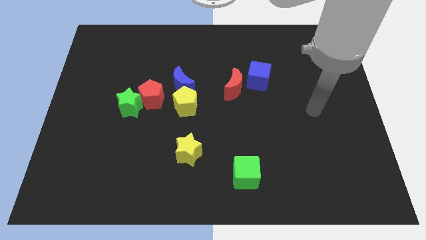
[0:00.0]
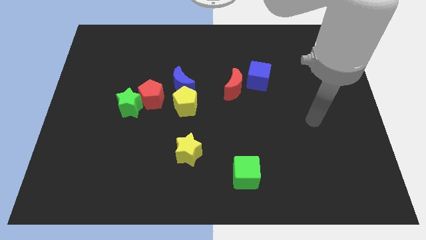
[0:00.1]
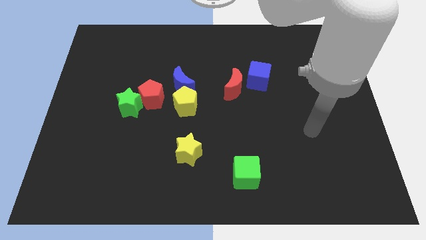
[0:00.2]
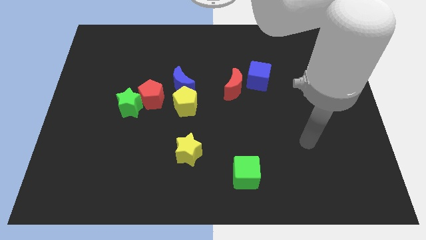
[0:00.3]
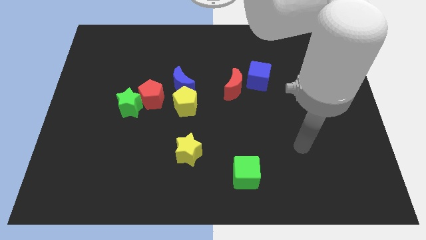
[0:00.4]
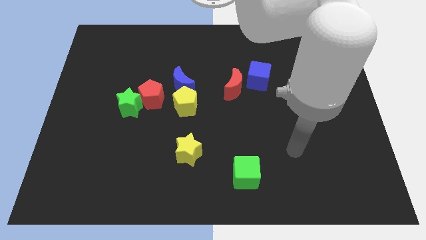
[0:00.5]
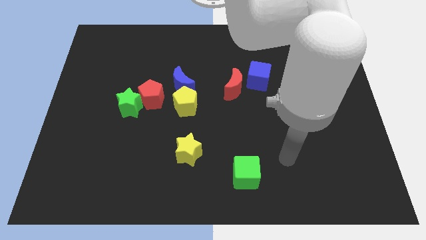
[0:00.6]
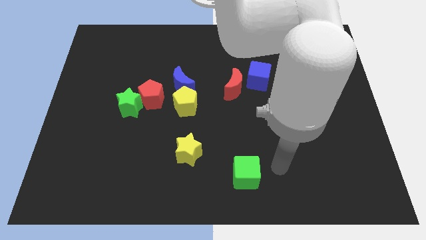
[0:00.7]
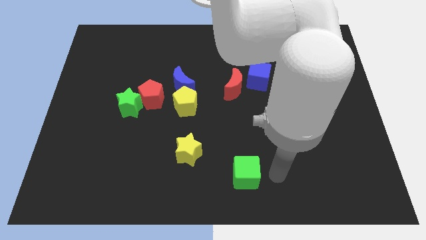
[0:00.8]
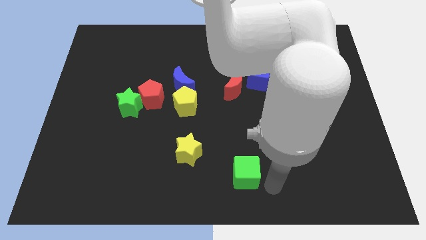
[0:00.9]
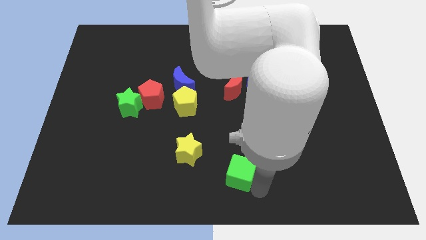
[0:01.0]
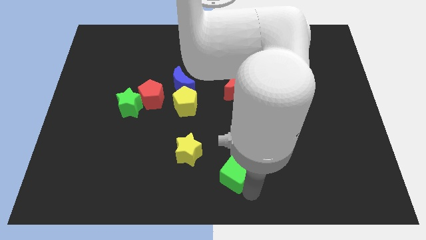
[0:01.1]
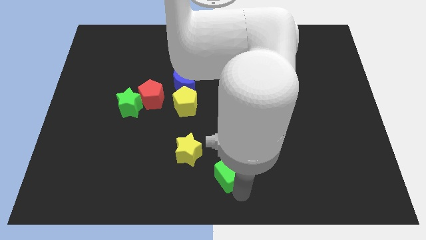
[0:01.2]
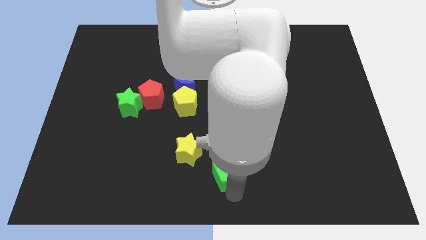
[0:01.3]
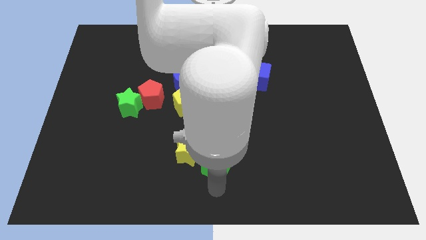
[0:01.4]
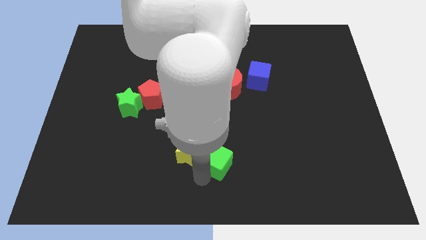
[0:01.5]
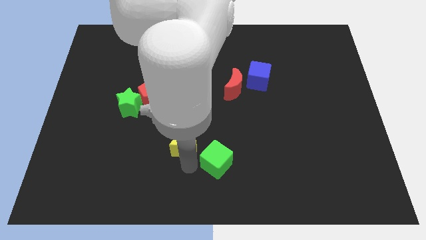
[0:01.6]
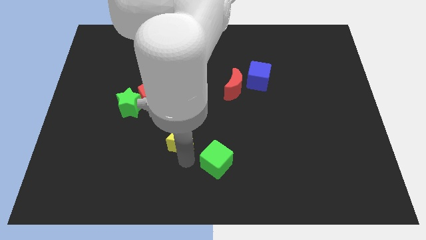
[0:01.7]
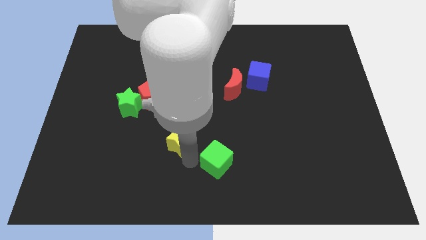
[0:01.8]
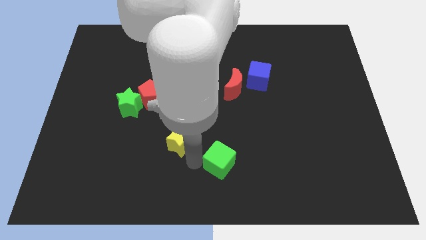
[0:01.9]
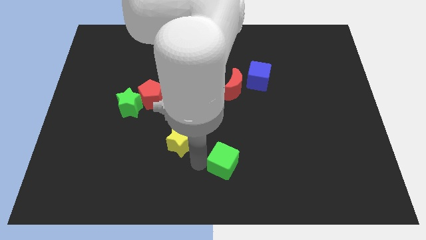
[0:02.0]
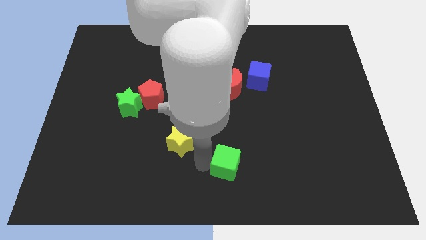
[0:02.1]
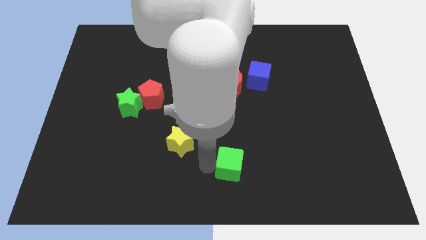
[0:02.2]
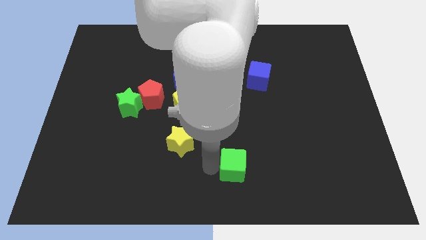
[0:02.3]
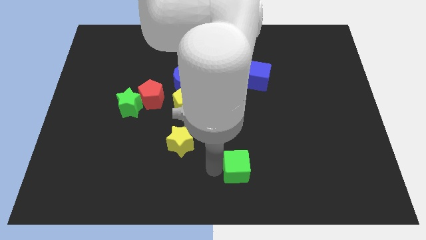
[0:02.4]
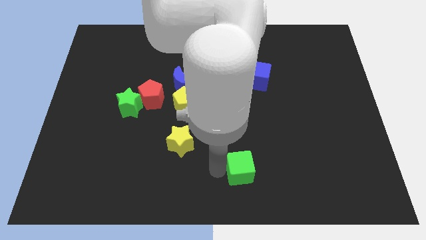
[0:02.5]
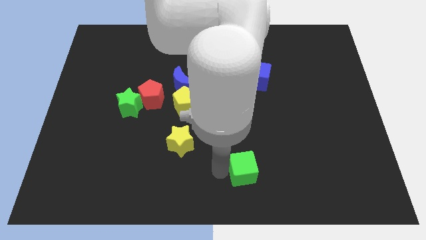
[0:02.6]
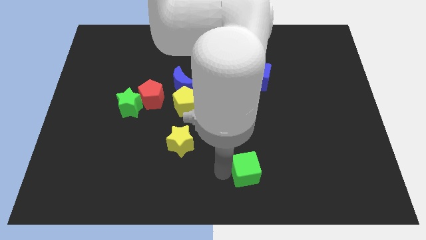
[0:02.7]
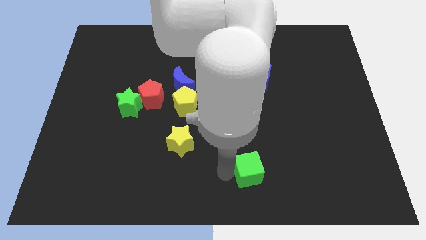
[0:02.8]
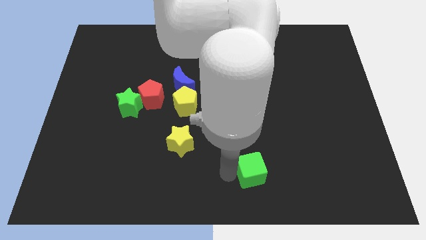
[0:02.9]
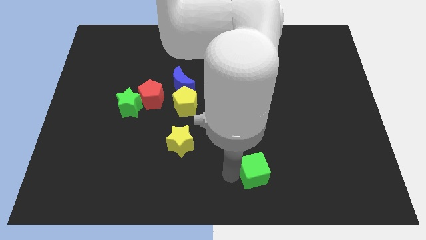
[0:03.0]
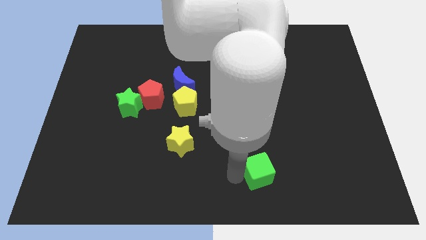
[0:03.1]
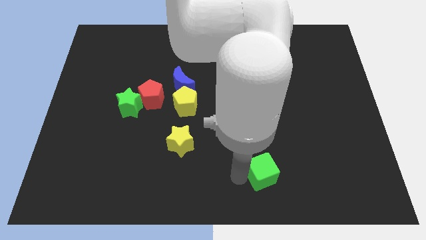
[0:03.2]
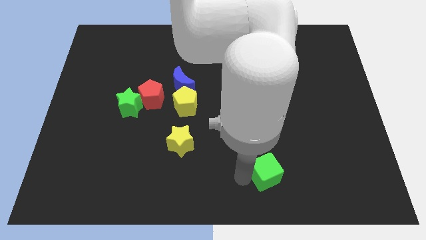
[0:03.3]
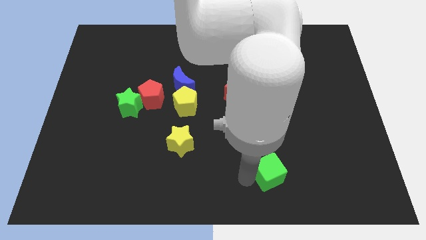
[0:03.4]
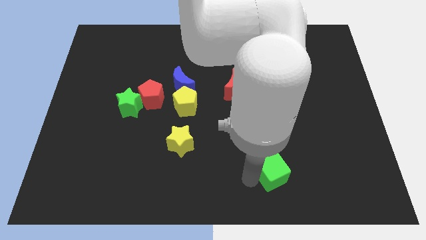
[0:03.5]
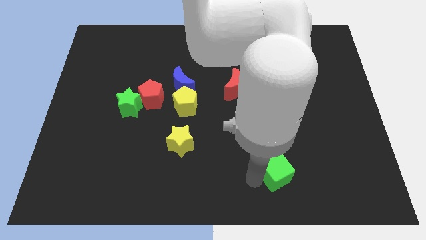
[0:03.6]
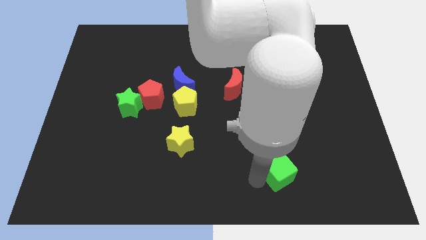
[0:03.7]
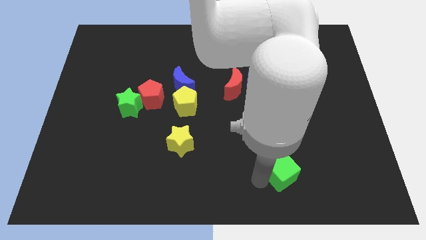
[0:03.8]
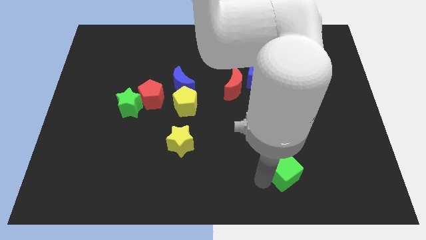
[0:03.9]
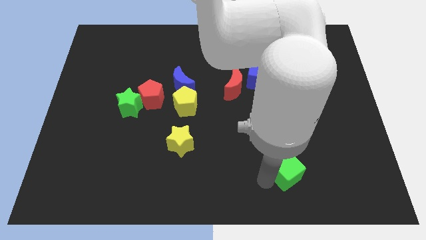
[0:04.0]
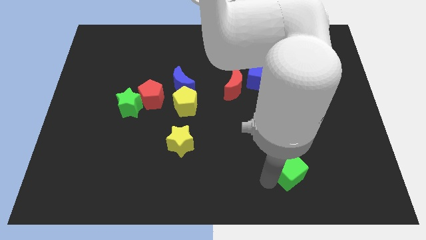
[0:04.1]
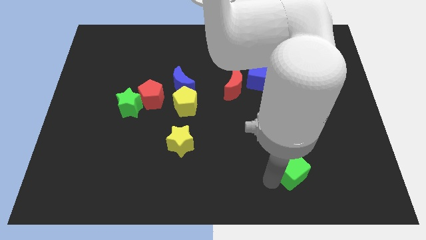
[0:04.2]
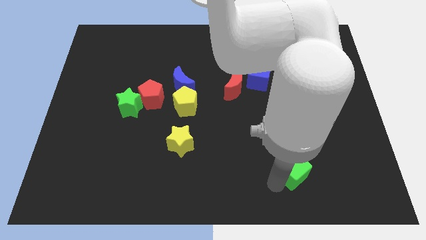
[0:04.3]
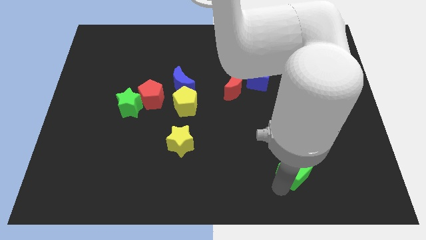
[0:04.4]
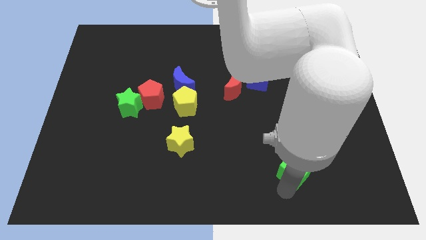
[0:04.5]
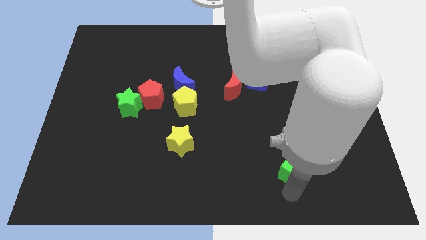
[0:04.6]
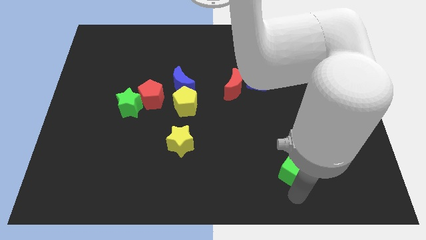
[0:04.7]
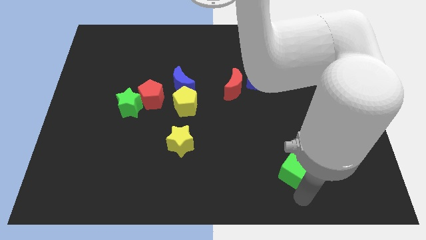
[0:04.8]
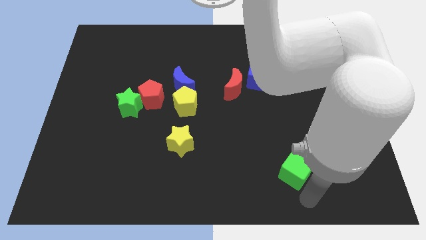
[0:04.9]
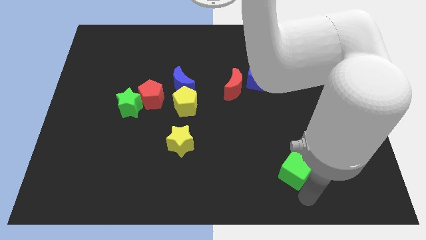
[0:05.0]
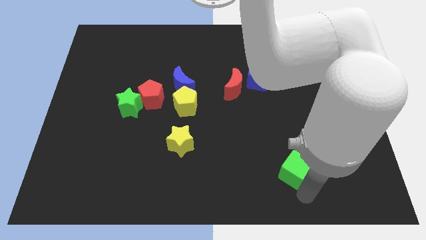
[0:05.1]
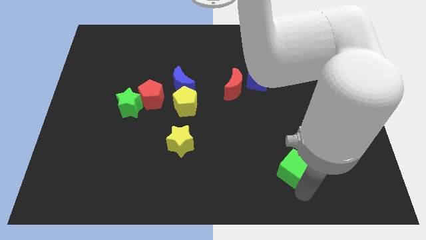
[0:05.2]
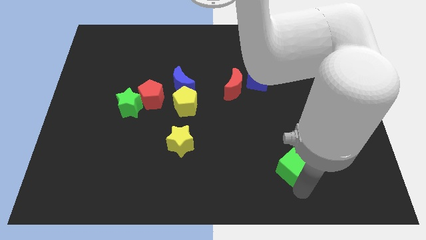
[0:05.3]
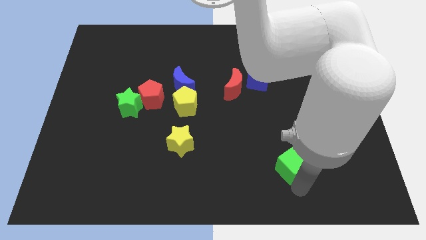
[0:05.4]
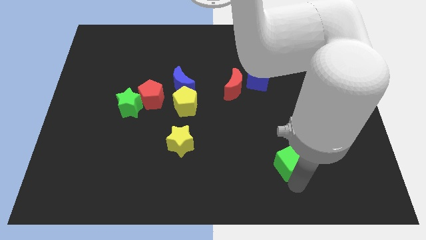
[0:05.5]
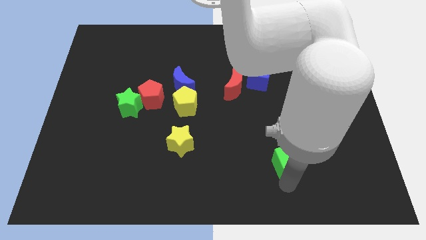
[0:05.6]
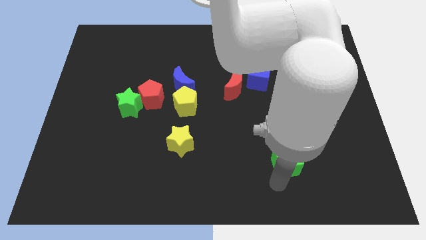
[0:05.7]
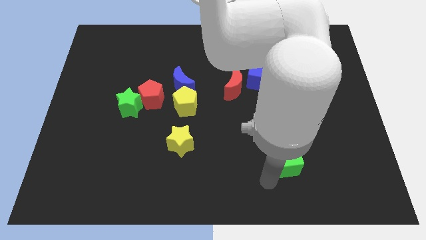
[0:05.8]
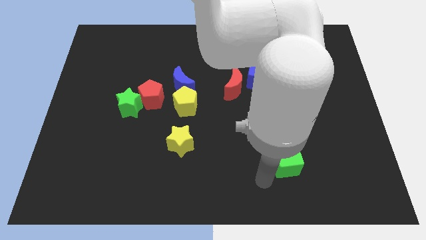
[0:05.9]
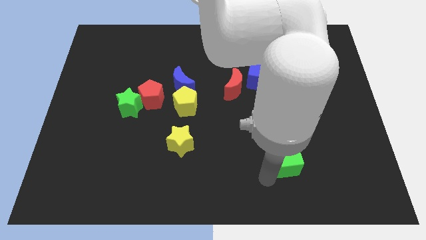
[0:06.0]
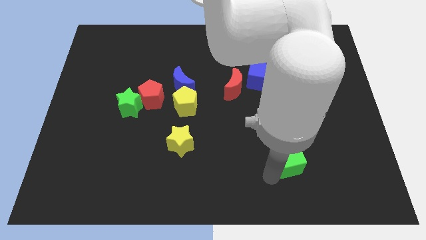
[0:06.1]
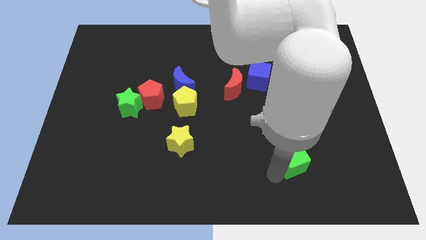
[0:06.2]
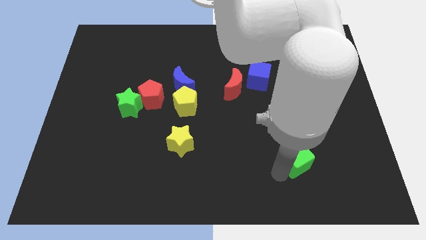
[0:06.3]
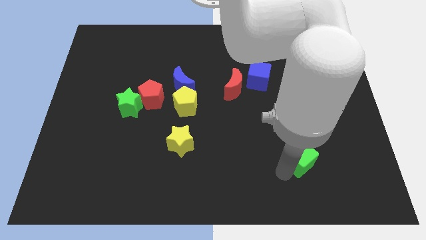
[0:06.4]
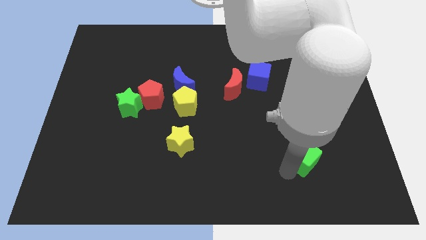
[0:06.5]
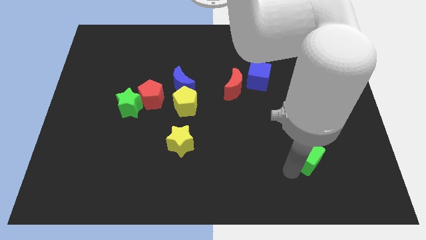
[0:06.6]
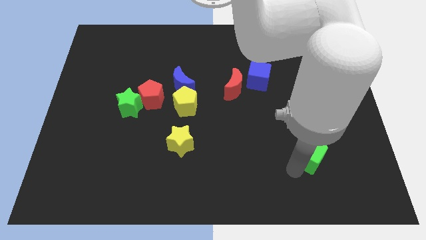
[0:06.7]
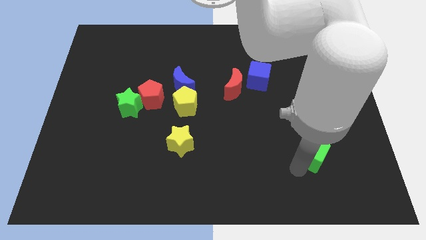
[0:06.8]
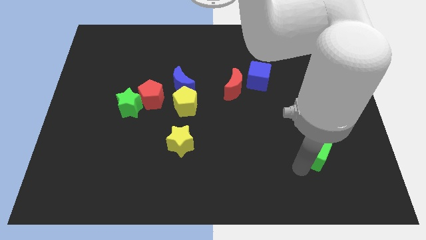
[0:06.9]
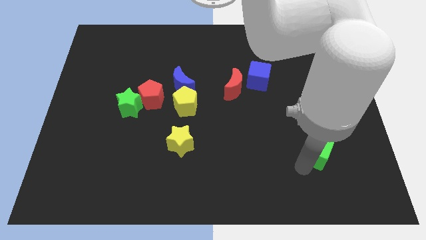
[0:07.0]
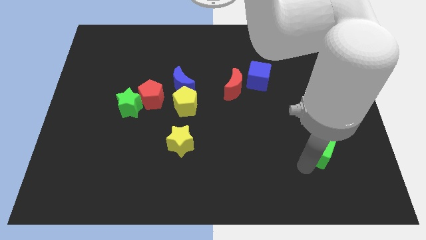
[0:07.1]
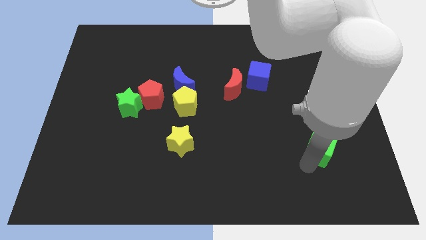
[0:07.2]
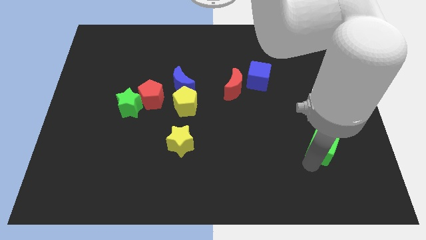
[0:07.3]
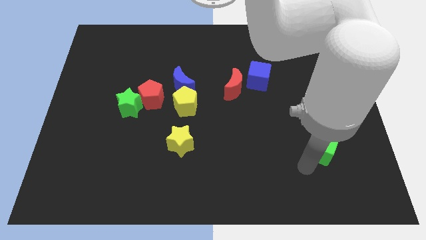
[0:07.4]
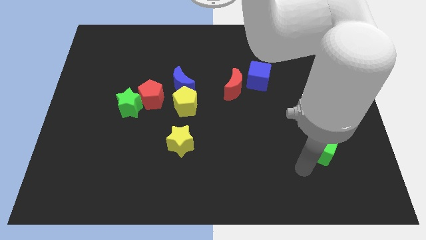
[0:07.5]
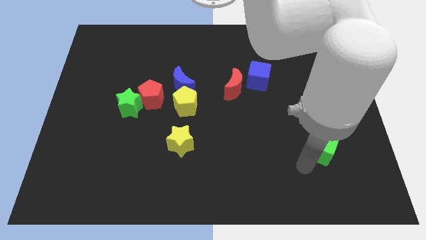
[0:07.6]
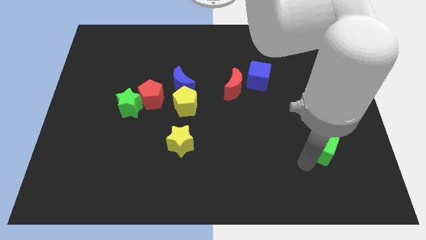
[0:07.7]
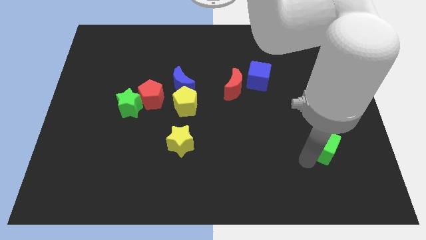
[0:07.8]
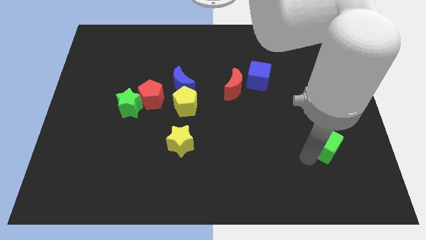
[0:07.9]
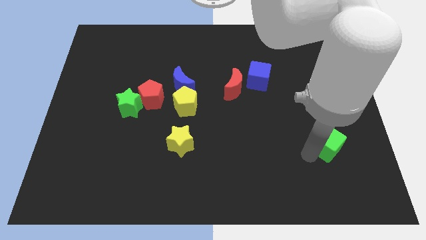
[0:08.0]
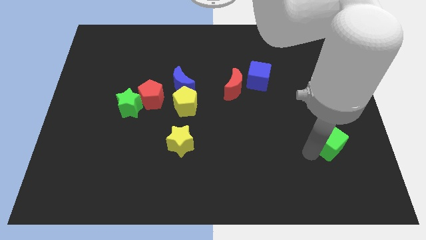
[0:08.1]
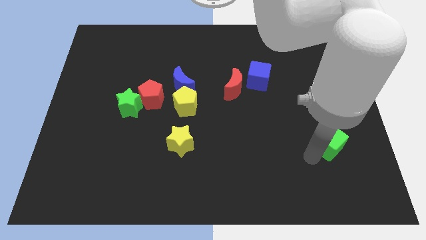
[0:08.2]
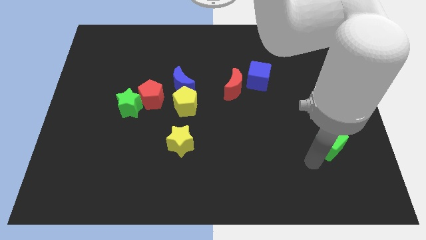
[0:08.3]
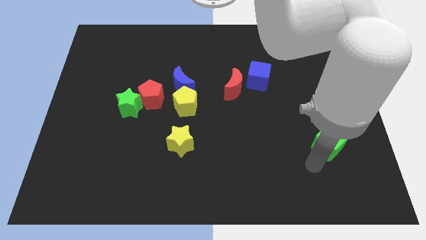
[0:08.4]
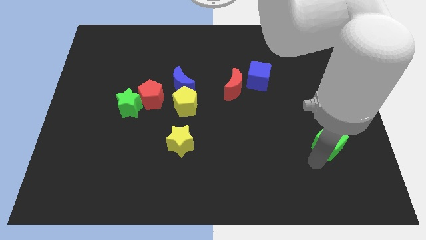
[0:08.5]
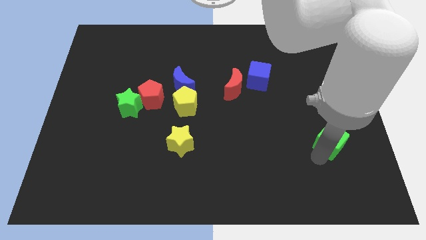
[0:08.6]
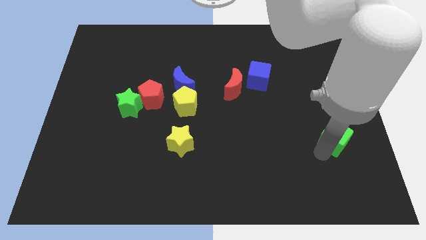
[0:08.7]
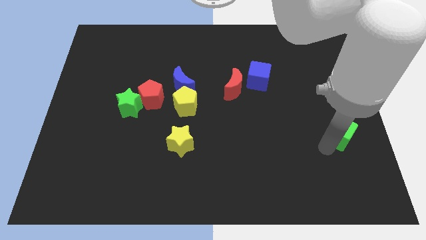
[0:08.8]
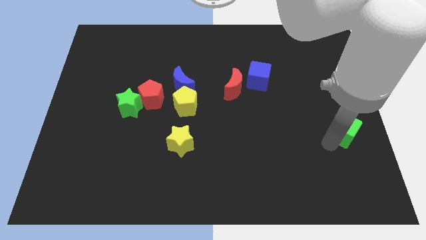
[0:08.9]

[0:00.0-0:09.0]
slide the green cube to the right side
